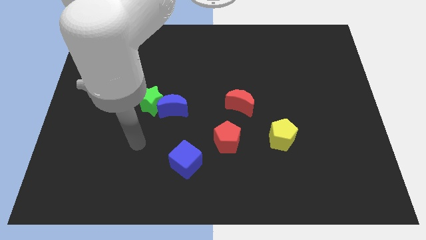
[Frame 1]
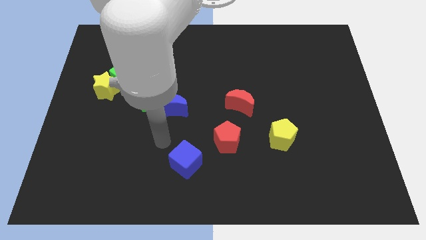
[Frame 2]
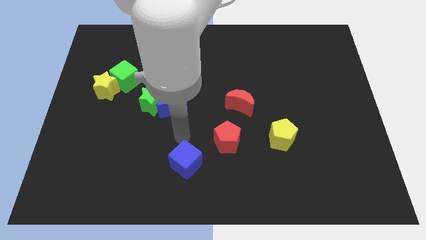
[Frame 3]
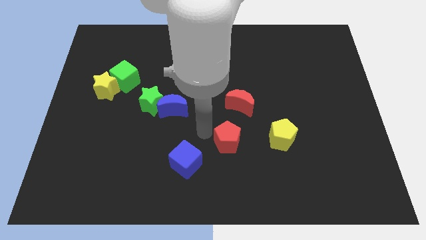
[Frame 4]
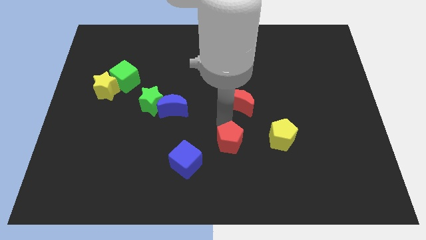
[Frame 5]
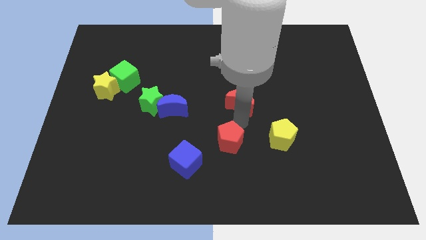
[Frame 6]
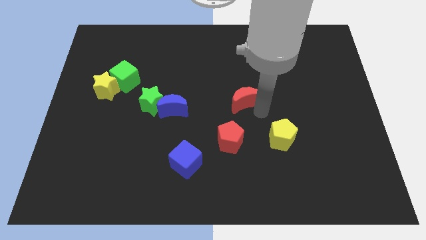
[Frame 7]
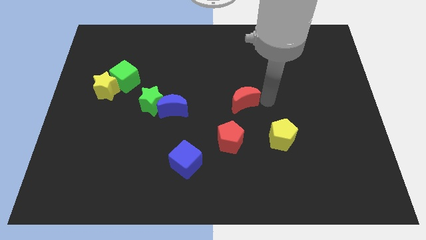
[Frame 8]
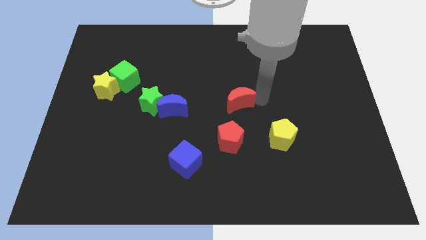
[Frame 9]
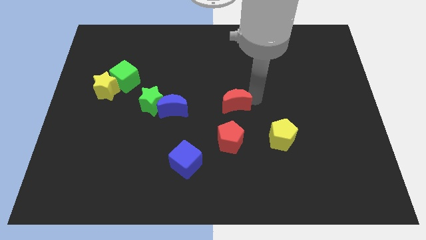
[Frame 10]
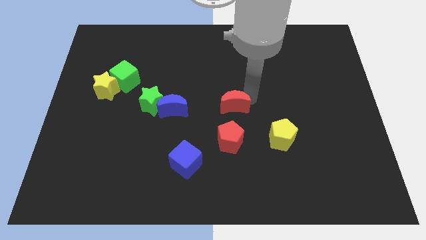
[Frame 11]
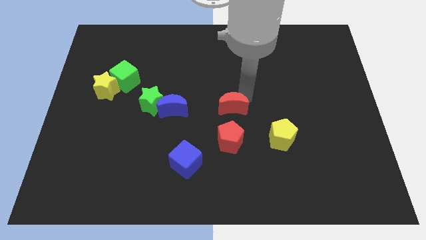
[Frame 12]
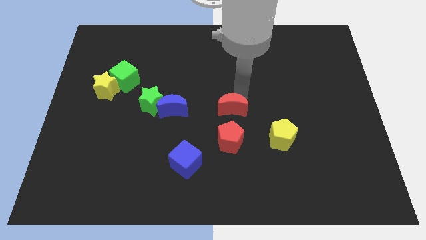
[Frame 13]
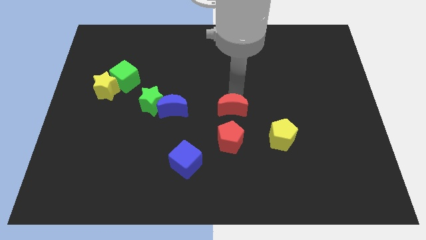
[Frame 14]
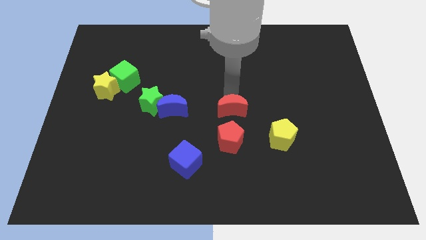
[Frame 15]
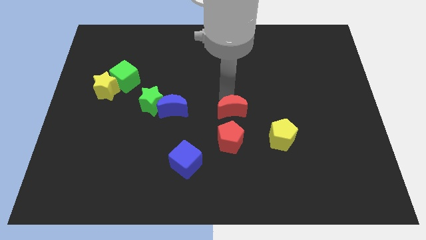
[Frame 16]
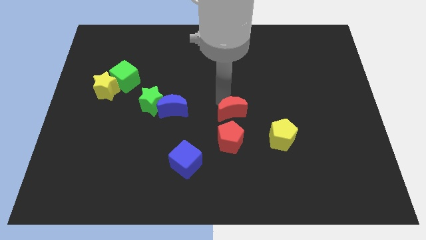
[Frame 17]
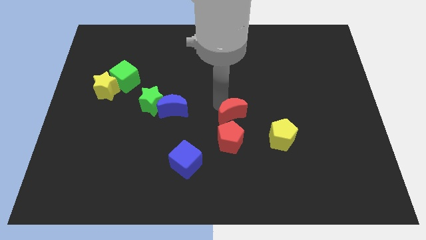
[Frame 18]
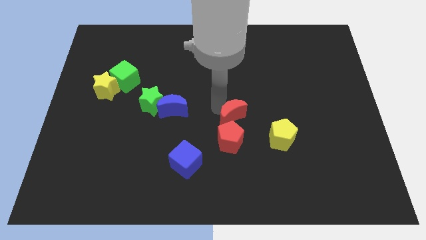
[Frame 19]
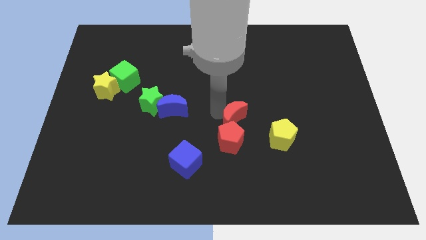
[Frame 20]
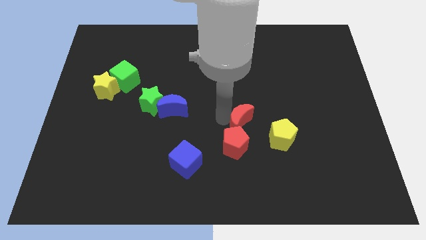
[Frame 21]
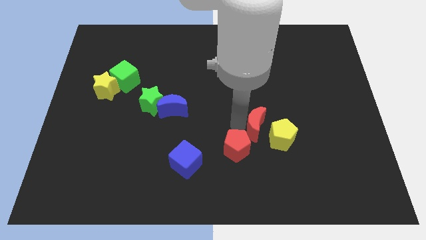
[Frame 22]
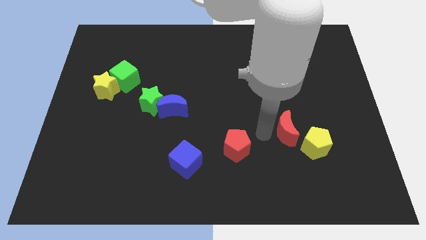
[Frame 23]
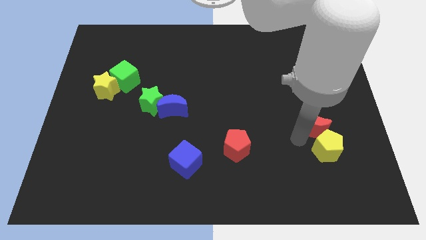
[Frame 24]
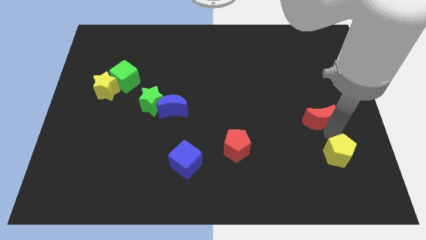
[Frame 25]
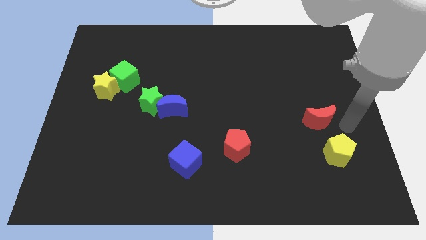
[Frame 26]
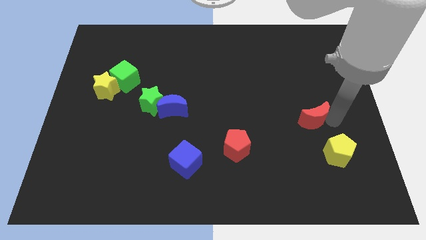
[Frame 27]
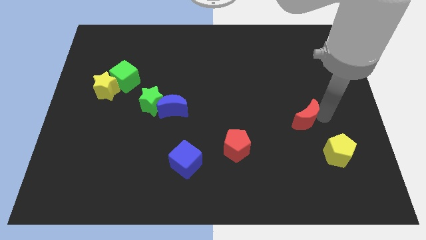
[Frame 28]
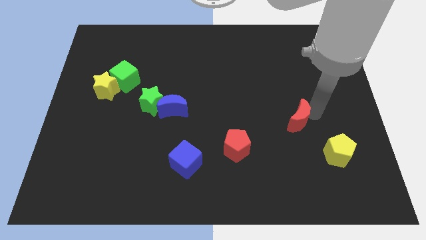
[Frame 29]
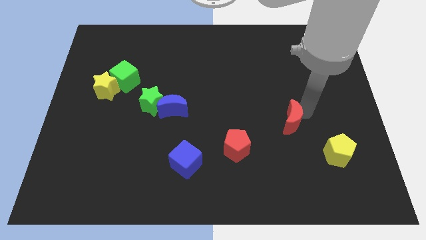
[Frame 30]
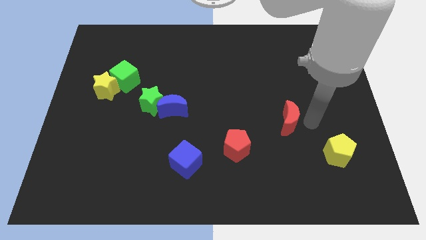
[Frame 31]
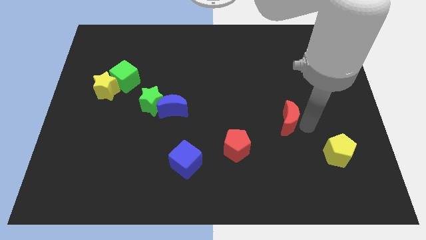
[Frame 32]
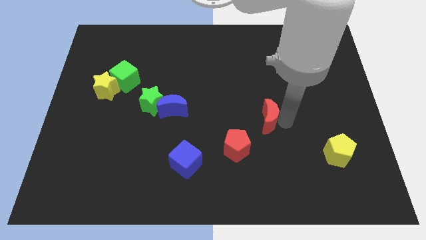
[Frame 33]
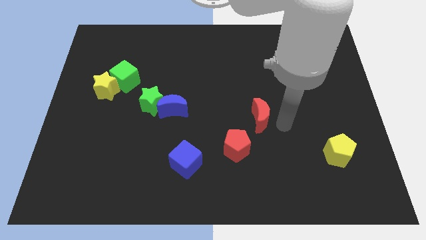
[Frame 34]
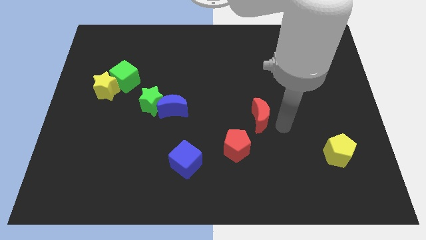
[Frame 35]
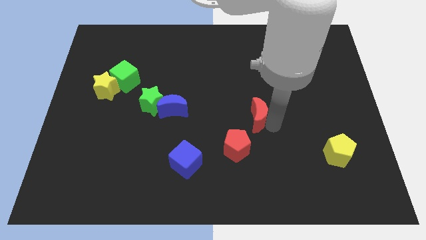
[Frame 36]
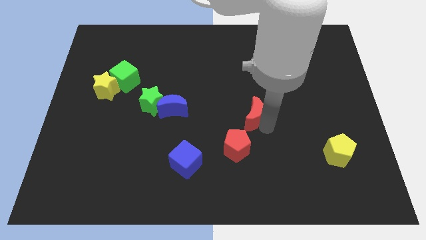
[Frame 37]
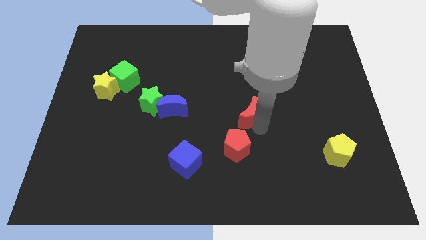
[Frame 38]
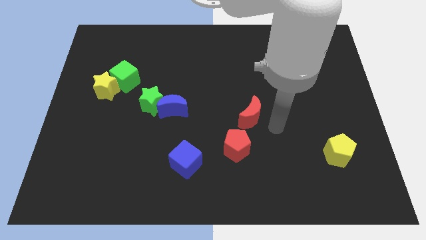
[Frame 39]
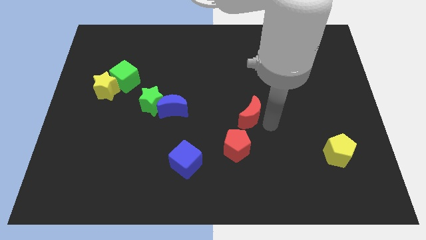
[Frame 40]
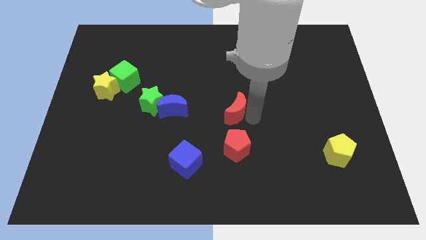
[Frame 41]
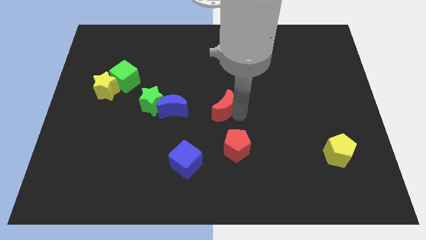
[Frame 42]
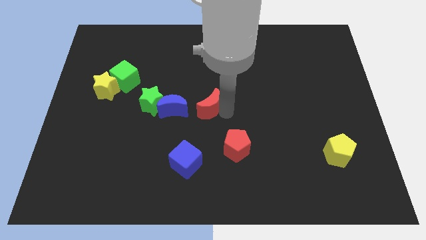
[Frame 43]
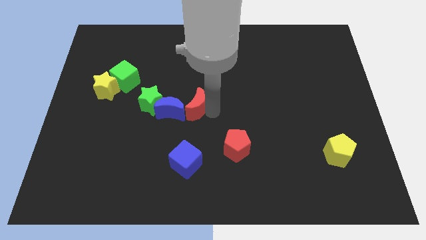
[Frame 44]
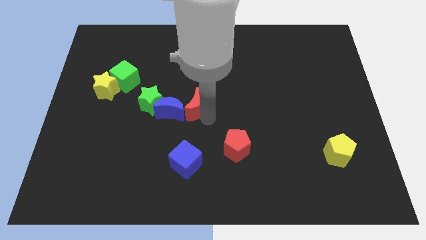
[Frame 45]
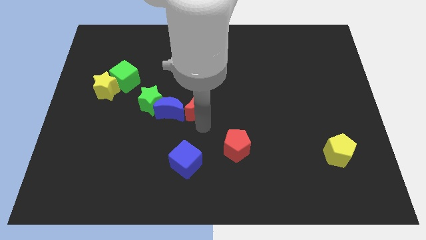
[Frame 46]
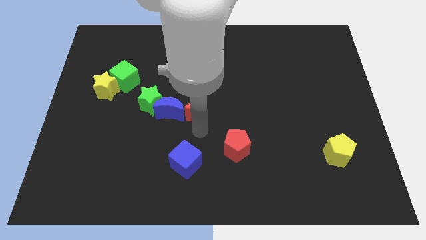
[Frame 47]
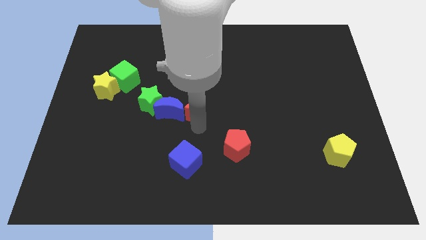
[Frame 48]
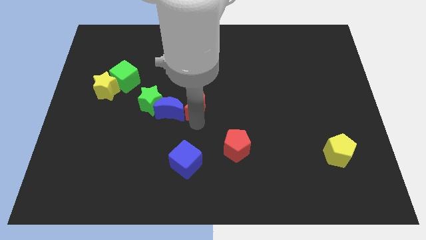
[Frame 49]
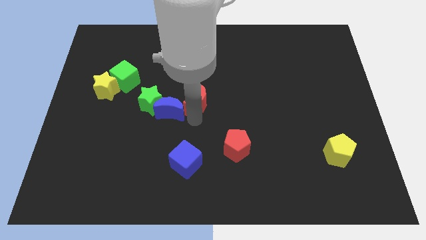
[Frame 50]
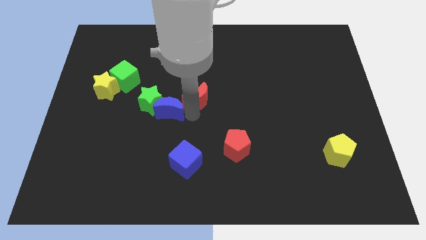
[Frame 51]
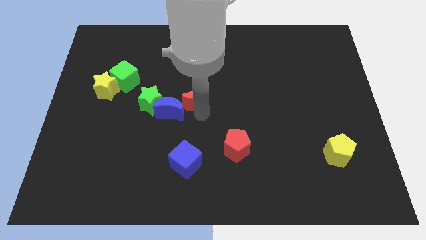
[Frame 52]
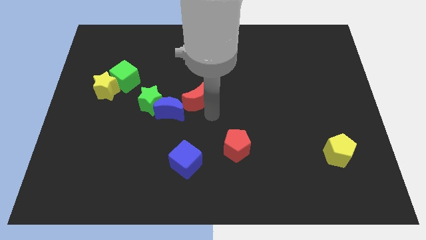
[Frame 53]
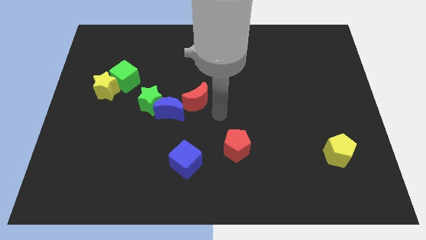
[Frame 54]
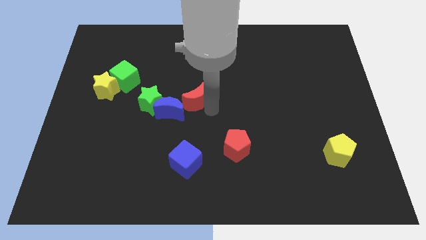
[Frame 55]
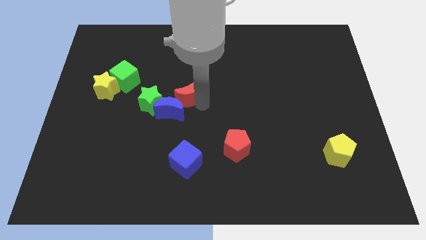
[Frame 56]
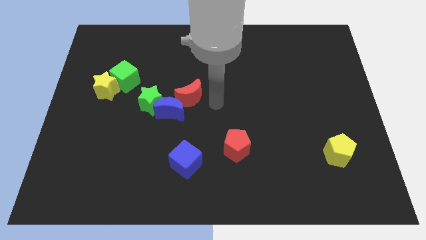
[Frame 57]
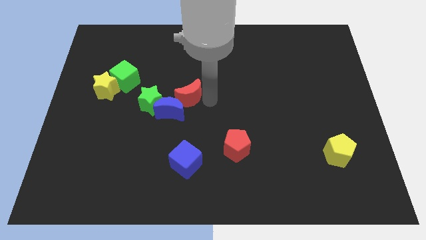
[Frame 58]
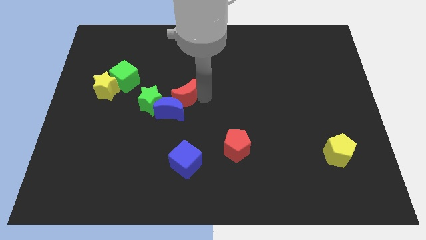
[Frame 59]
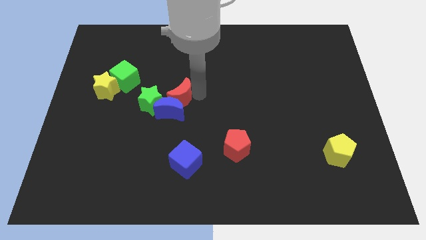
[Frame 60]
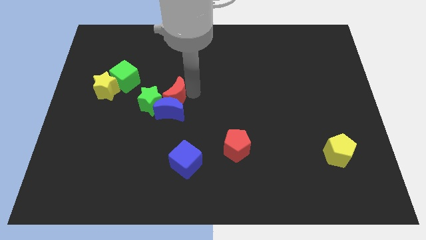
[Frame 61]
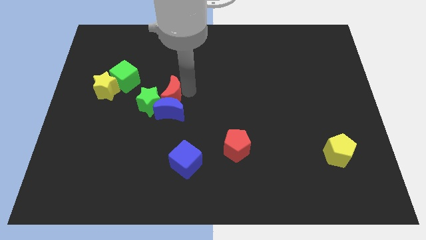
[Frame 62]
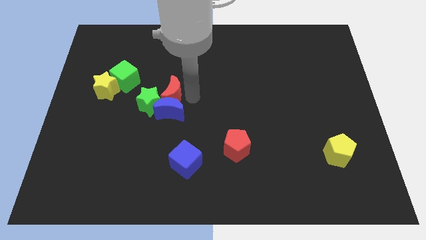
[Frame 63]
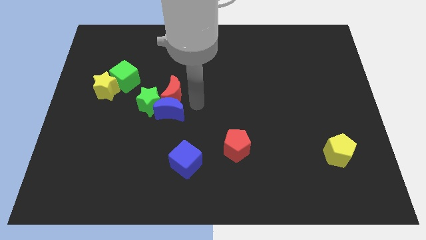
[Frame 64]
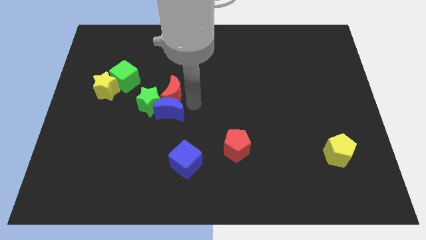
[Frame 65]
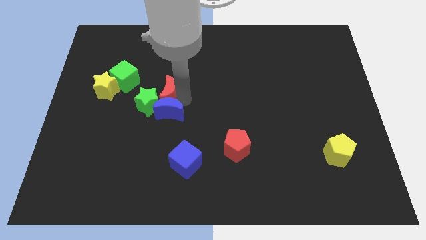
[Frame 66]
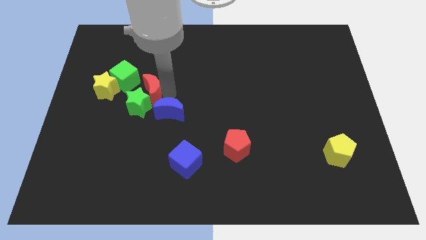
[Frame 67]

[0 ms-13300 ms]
move the red moon to the left

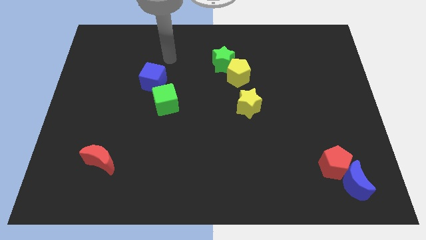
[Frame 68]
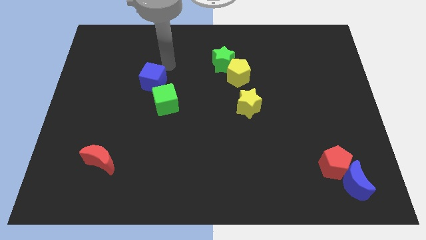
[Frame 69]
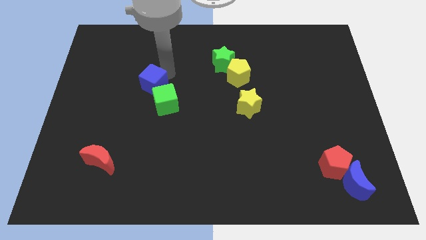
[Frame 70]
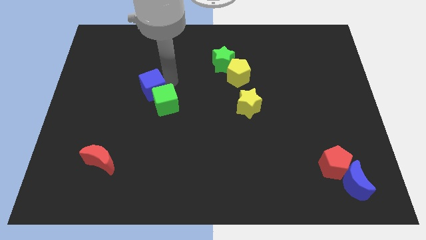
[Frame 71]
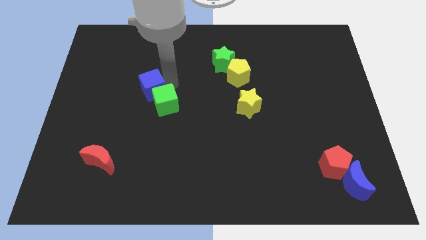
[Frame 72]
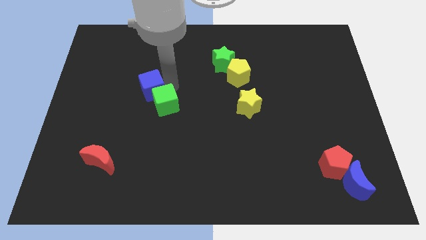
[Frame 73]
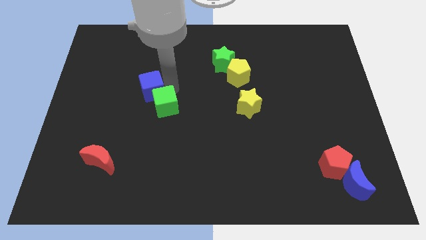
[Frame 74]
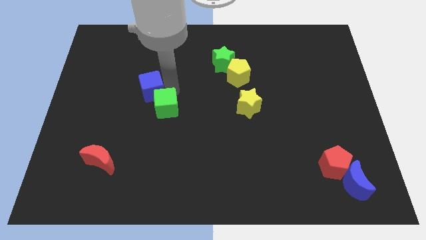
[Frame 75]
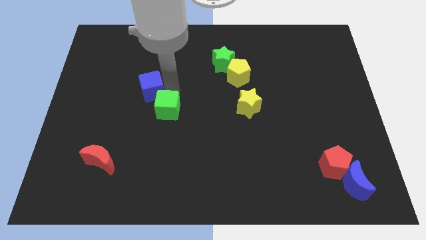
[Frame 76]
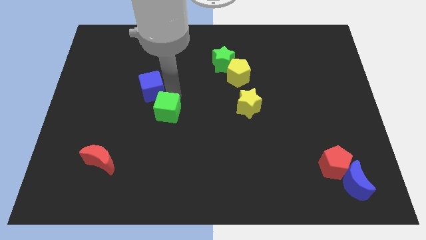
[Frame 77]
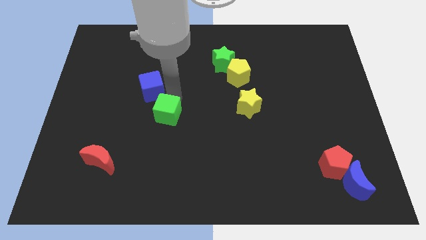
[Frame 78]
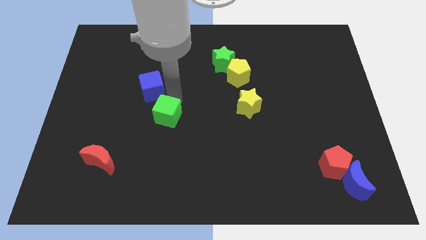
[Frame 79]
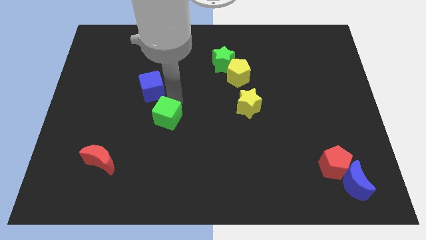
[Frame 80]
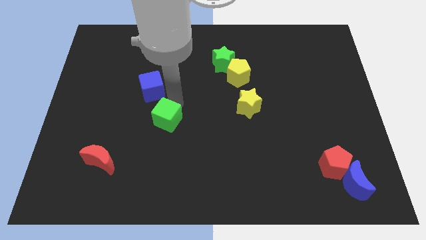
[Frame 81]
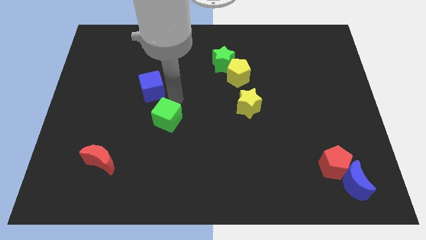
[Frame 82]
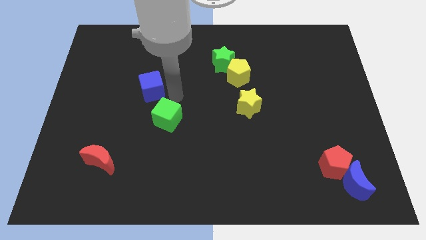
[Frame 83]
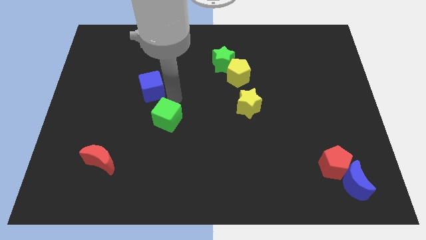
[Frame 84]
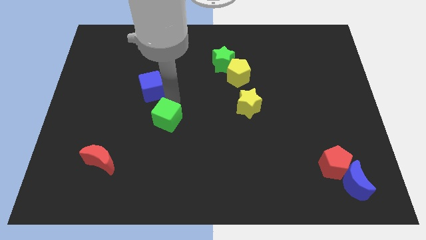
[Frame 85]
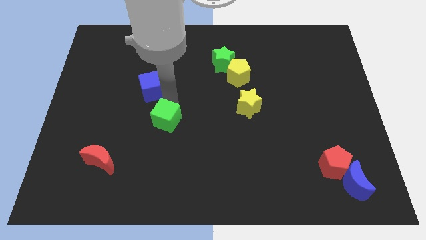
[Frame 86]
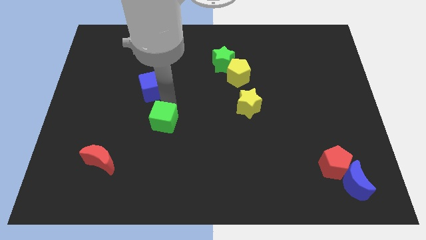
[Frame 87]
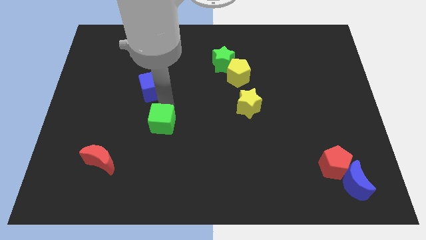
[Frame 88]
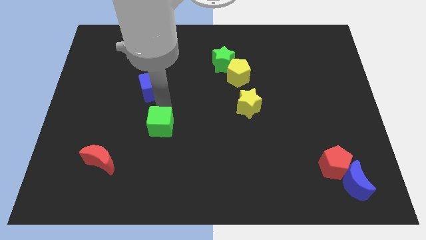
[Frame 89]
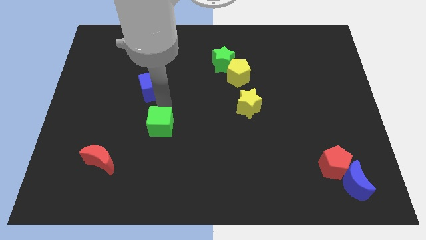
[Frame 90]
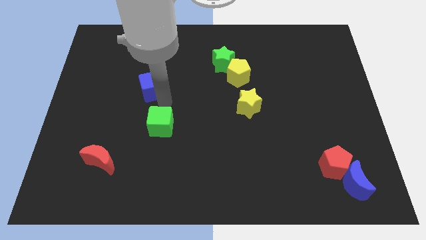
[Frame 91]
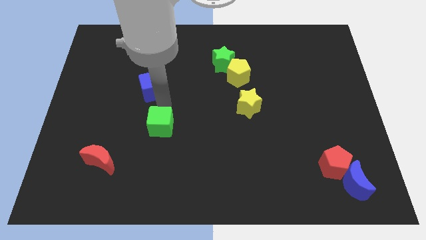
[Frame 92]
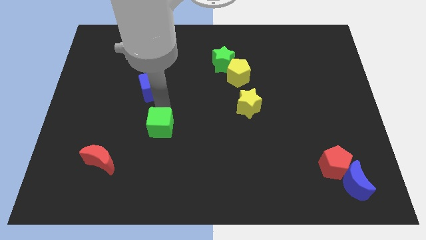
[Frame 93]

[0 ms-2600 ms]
move the green cube downwards a little bit
